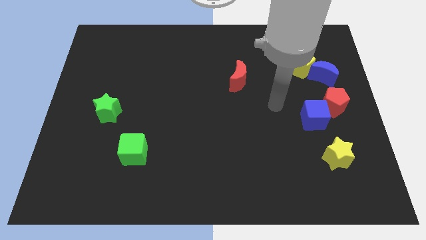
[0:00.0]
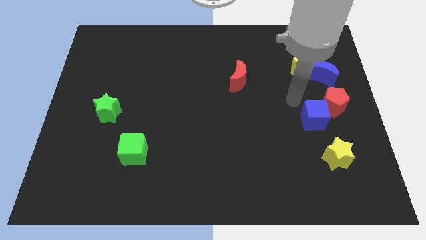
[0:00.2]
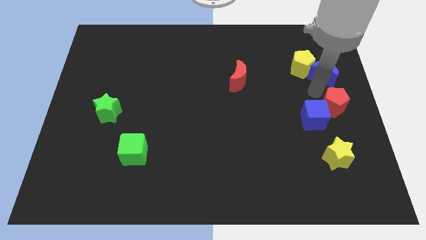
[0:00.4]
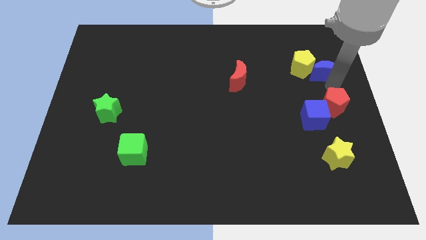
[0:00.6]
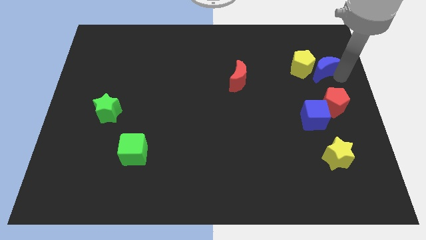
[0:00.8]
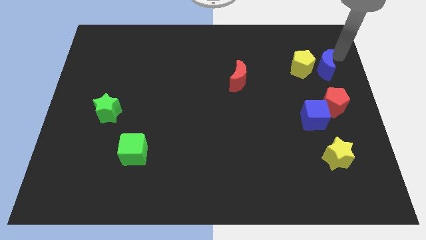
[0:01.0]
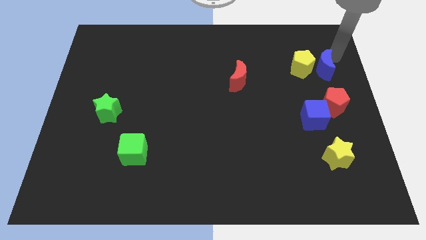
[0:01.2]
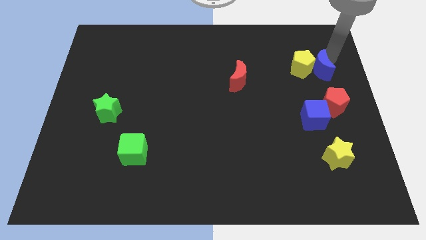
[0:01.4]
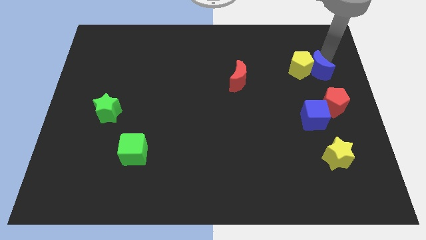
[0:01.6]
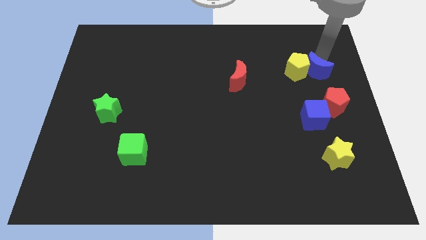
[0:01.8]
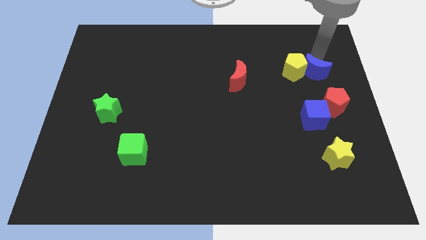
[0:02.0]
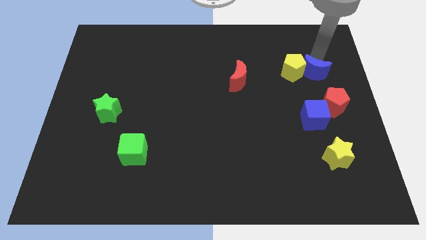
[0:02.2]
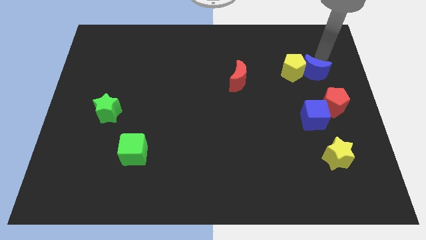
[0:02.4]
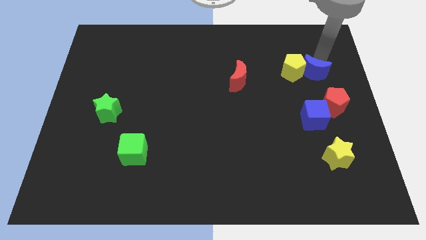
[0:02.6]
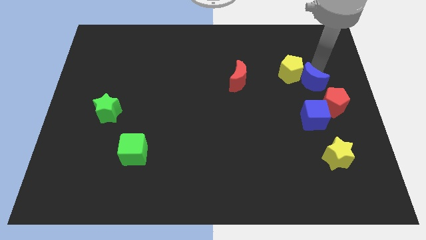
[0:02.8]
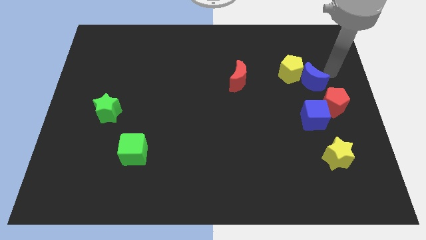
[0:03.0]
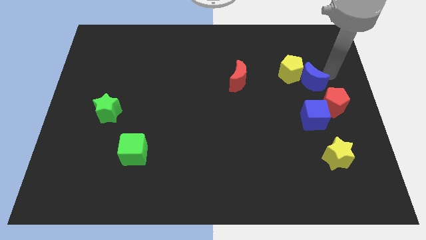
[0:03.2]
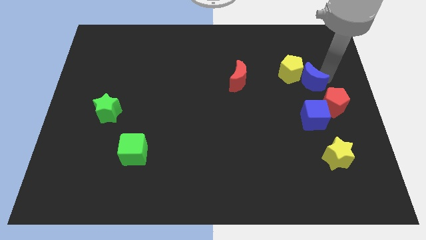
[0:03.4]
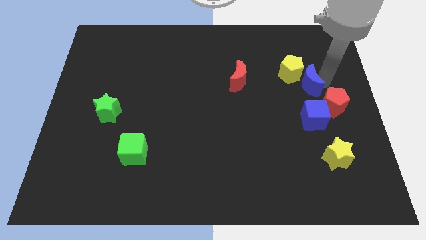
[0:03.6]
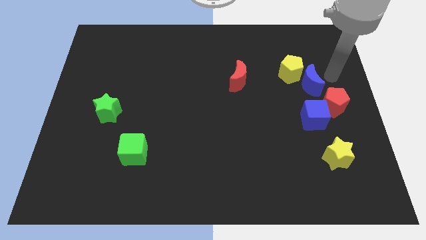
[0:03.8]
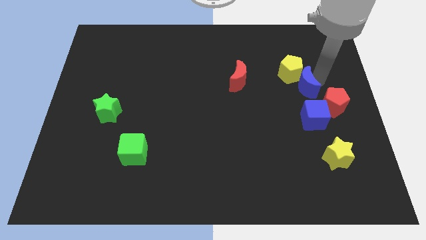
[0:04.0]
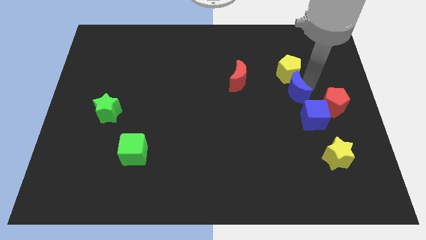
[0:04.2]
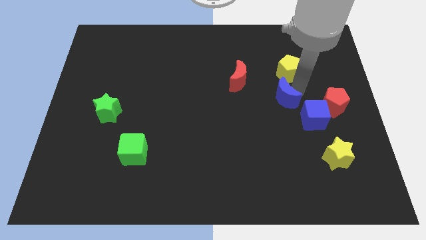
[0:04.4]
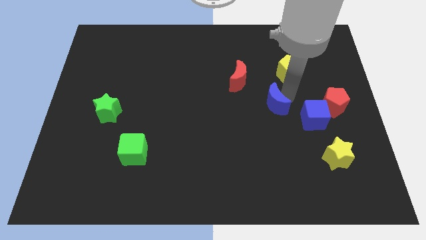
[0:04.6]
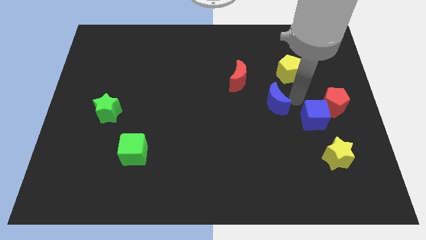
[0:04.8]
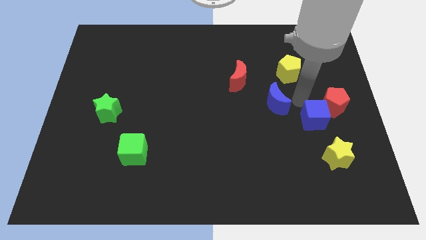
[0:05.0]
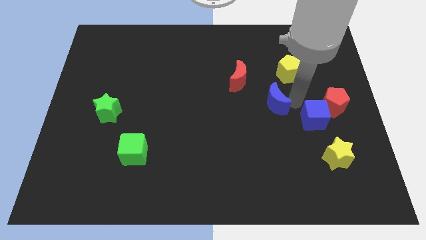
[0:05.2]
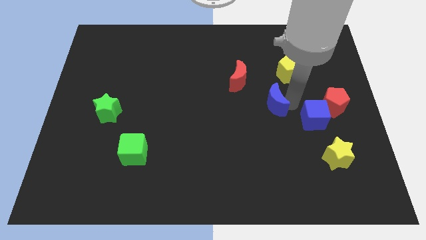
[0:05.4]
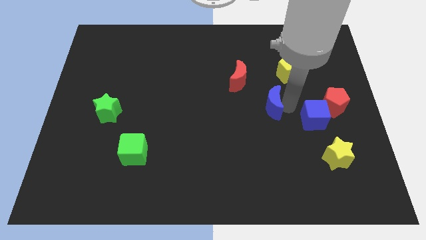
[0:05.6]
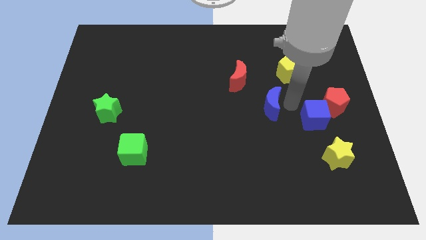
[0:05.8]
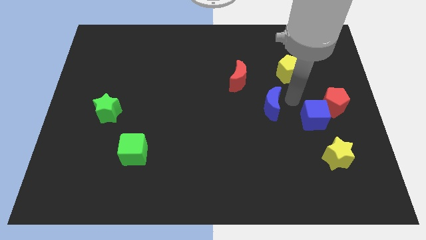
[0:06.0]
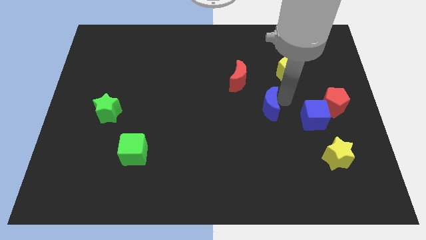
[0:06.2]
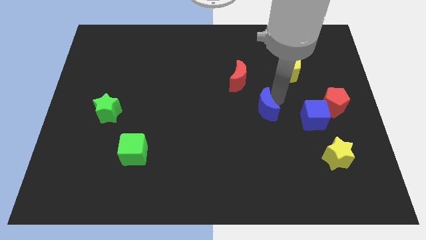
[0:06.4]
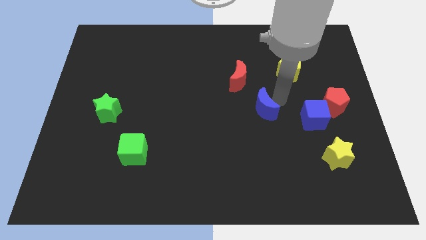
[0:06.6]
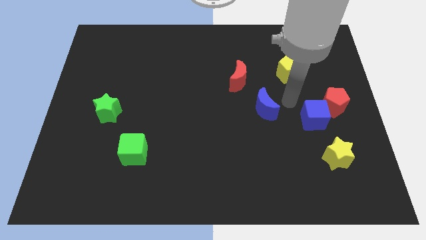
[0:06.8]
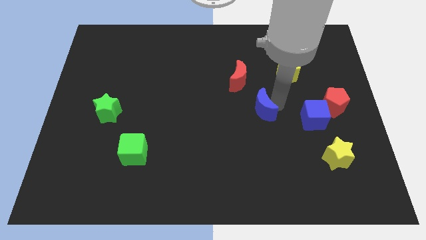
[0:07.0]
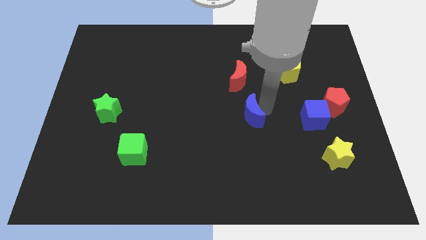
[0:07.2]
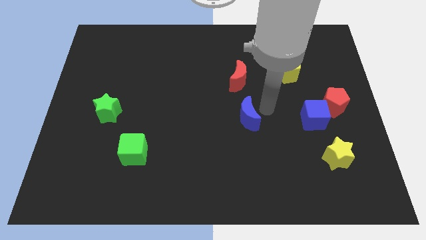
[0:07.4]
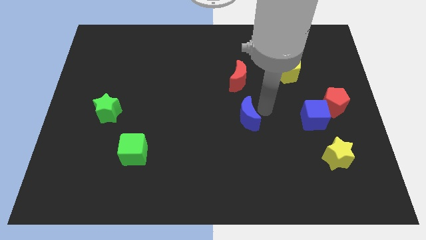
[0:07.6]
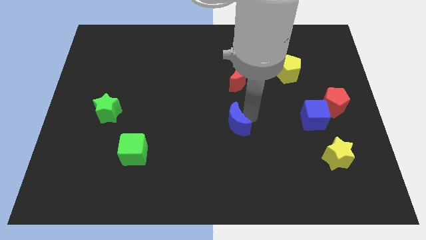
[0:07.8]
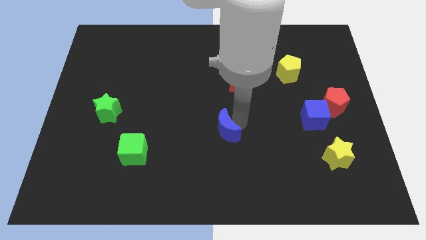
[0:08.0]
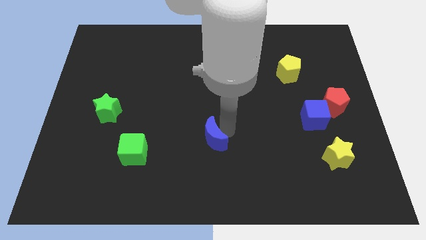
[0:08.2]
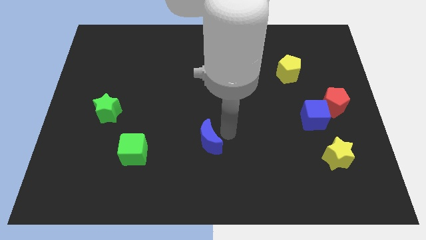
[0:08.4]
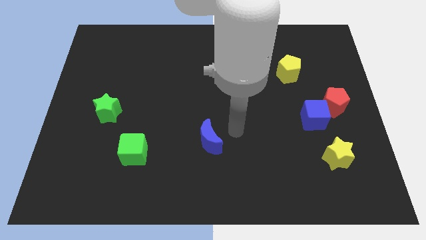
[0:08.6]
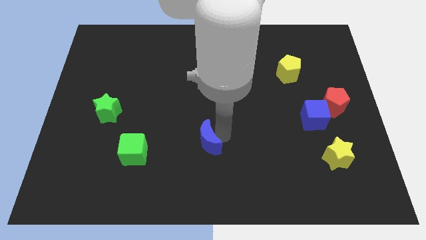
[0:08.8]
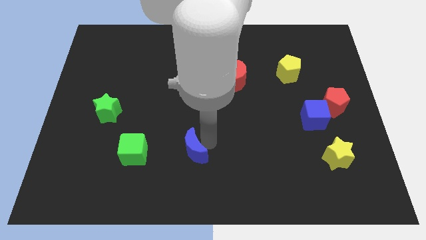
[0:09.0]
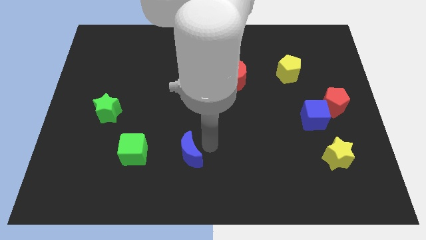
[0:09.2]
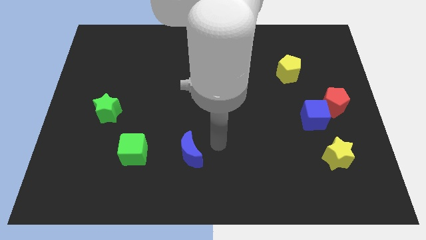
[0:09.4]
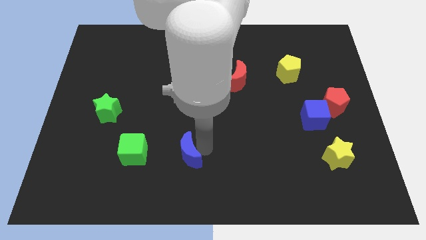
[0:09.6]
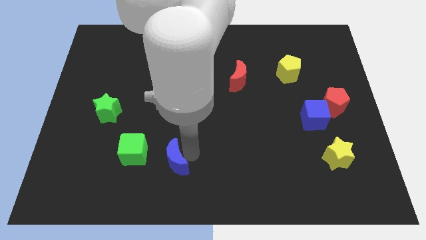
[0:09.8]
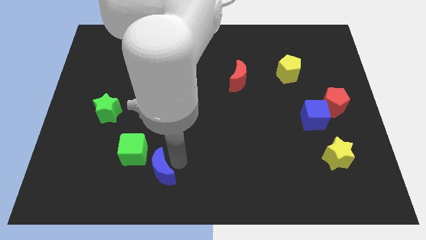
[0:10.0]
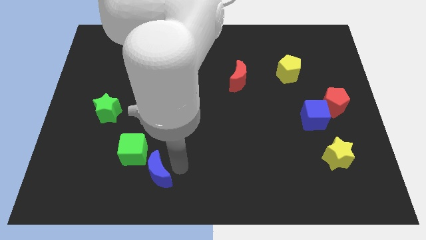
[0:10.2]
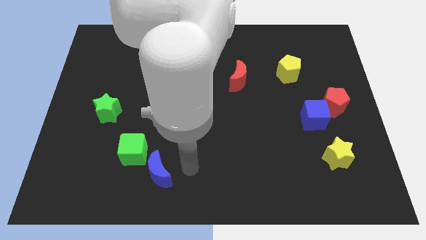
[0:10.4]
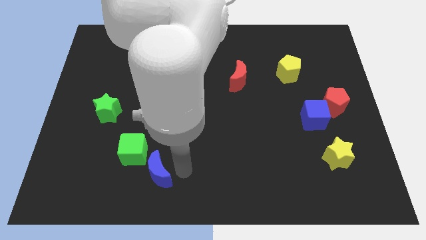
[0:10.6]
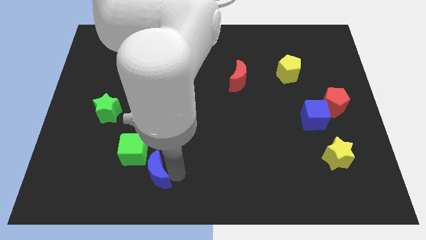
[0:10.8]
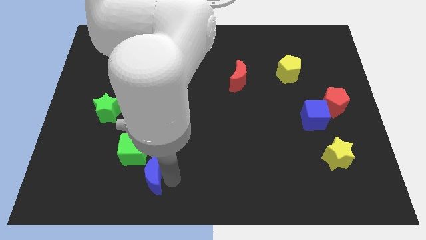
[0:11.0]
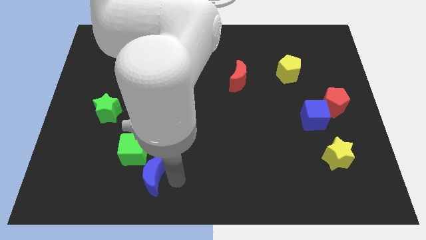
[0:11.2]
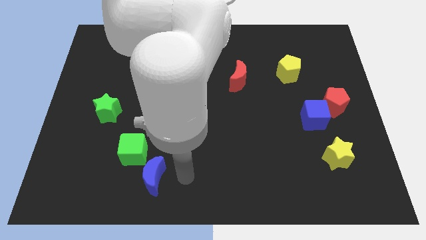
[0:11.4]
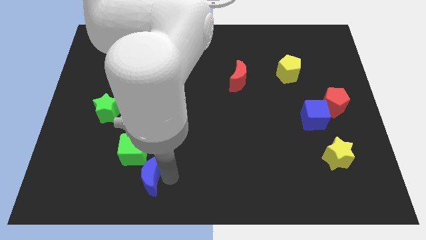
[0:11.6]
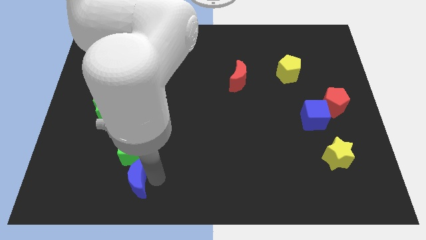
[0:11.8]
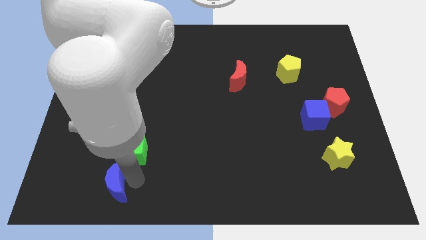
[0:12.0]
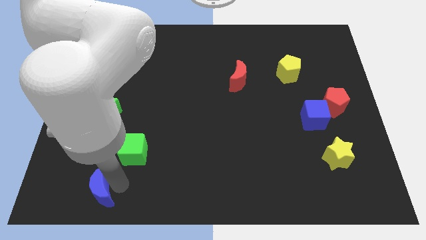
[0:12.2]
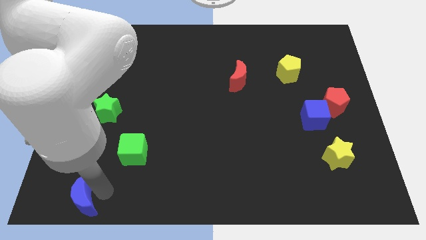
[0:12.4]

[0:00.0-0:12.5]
put the blue moon to the bottom left corner

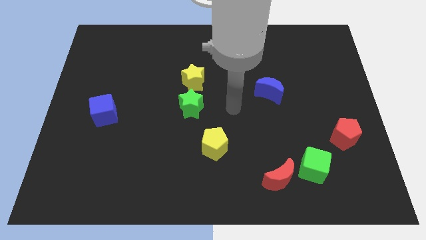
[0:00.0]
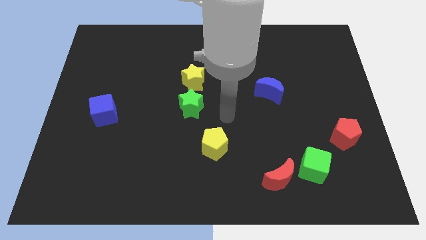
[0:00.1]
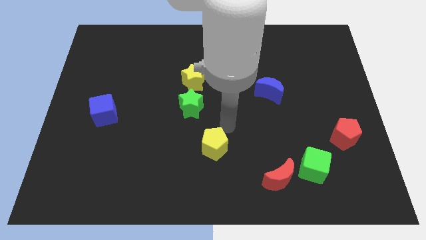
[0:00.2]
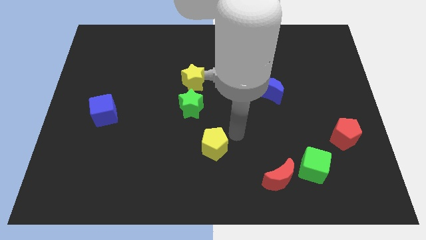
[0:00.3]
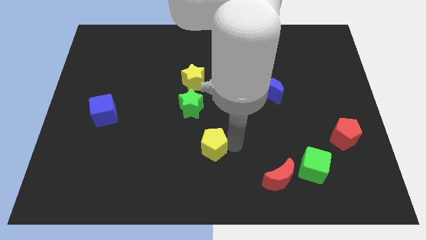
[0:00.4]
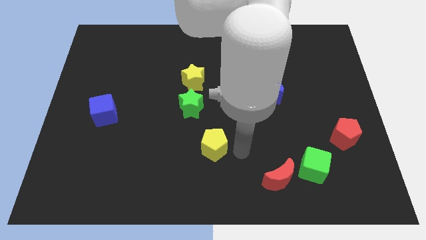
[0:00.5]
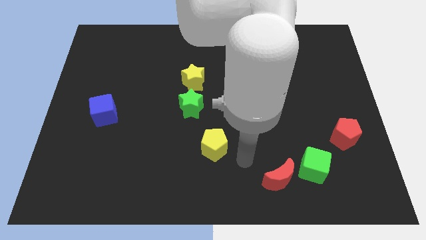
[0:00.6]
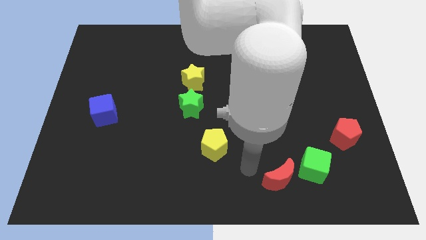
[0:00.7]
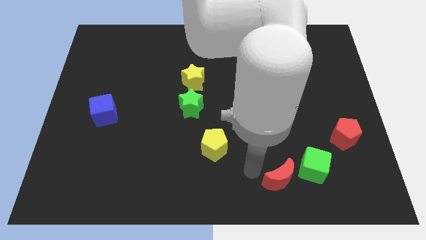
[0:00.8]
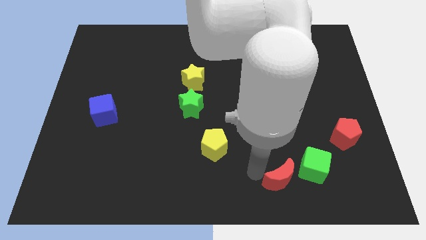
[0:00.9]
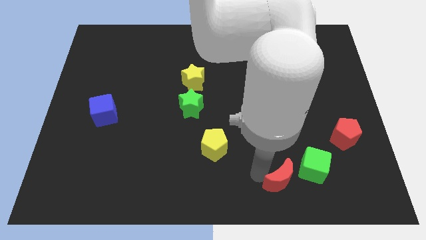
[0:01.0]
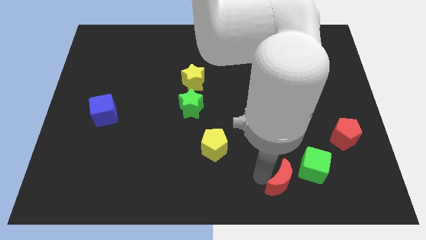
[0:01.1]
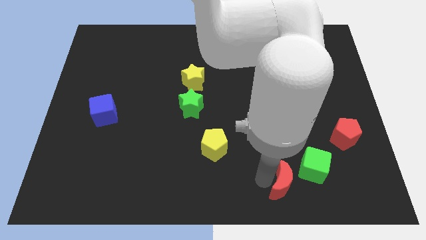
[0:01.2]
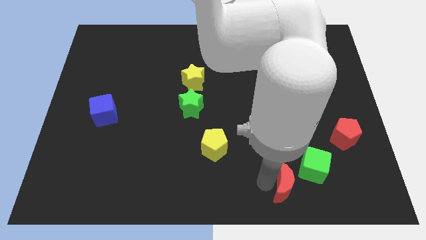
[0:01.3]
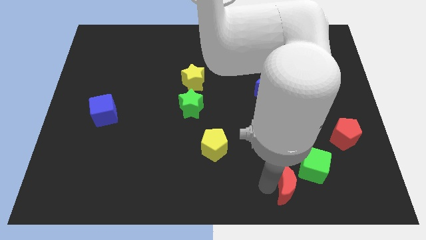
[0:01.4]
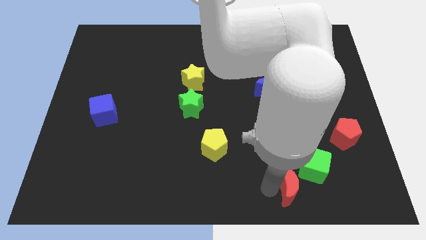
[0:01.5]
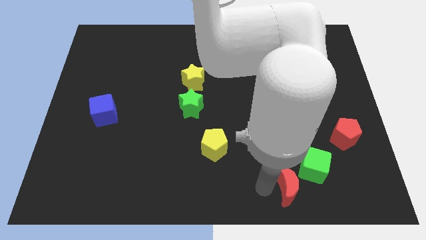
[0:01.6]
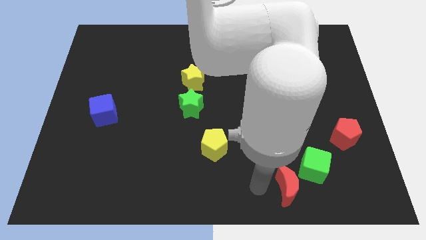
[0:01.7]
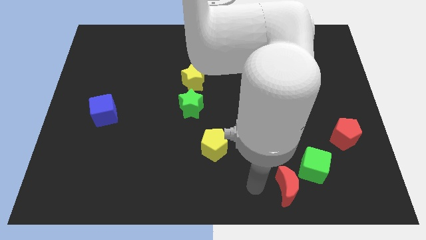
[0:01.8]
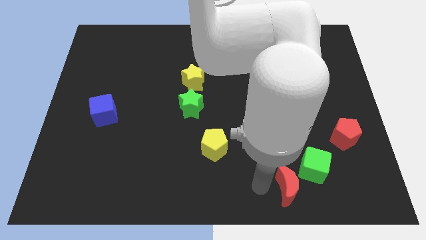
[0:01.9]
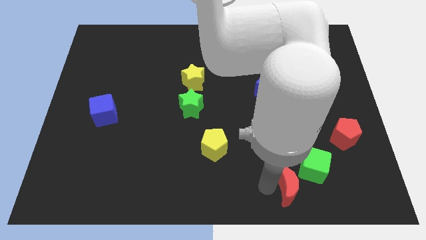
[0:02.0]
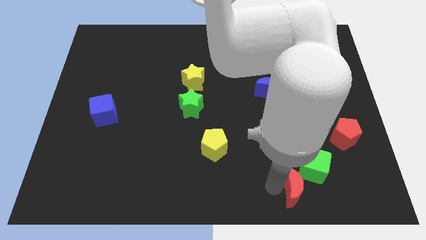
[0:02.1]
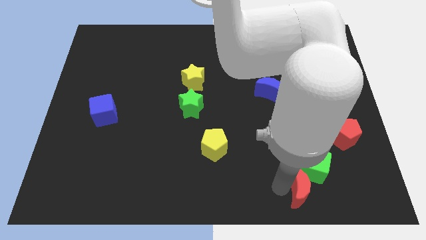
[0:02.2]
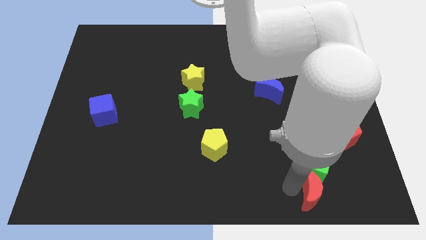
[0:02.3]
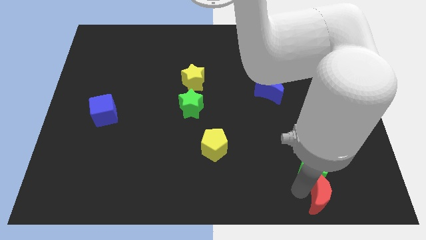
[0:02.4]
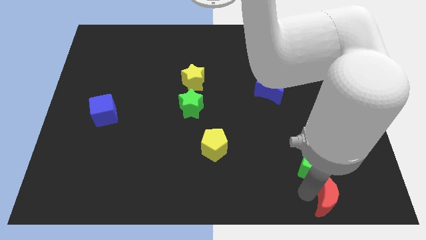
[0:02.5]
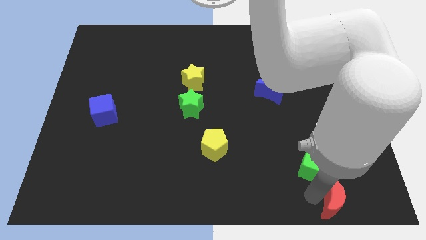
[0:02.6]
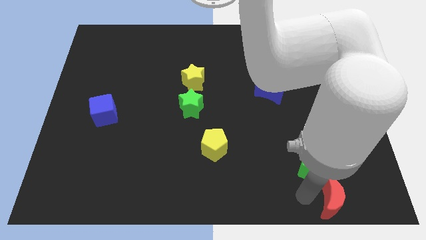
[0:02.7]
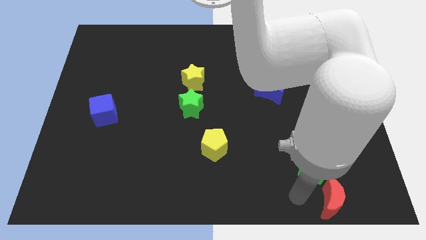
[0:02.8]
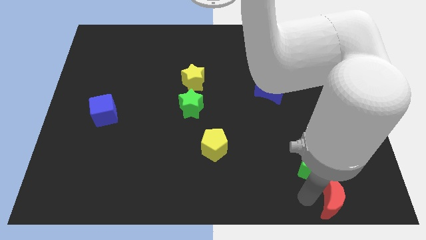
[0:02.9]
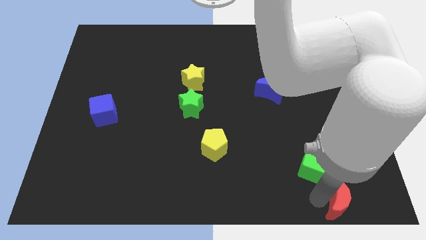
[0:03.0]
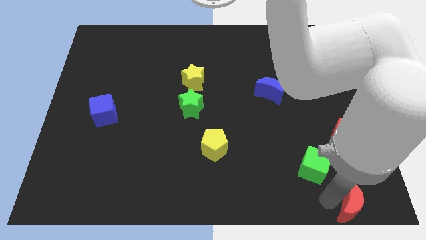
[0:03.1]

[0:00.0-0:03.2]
move the red moon to the bottom right corner
